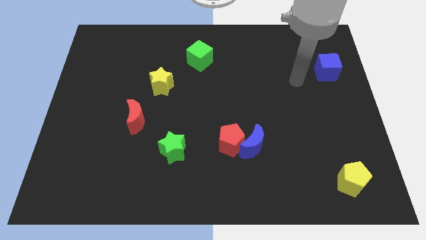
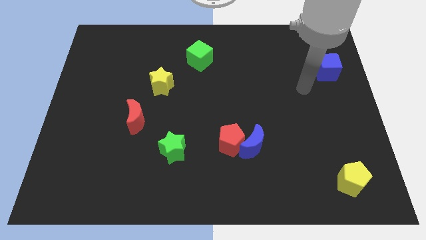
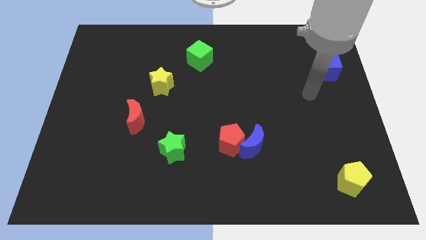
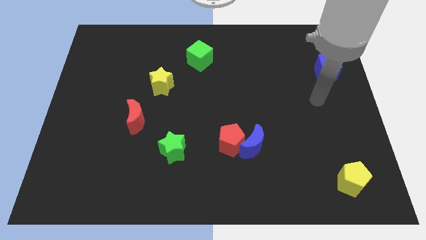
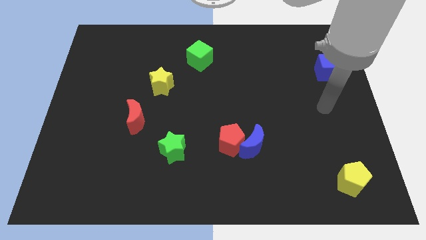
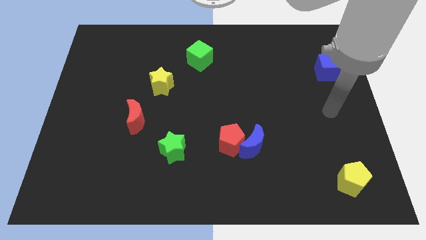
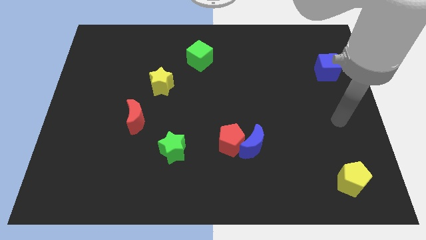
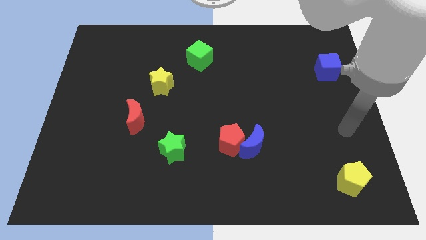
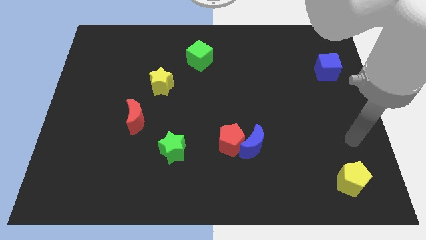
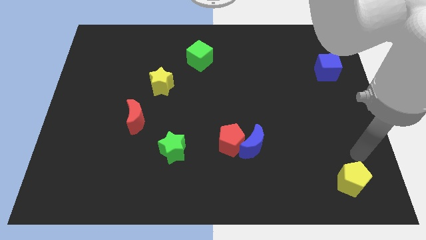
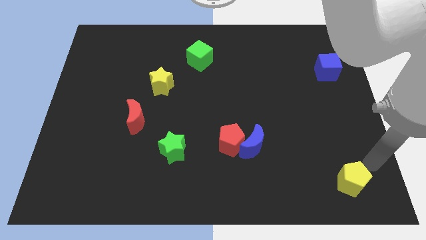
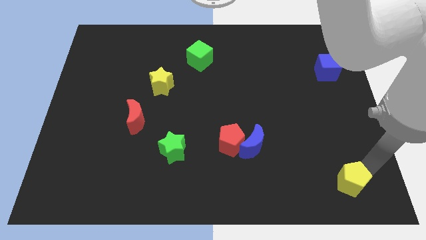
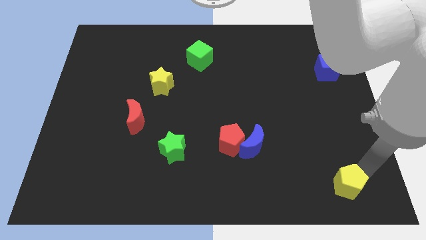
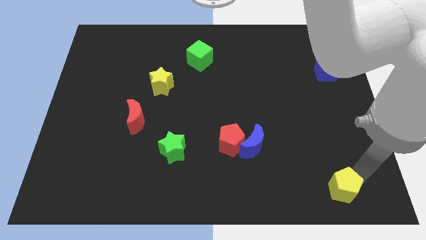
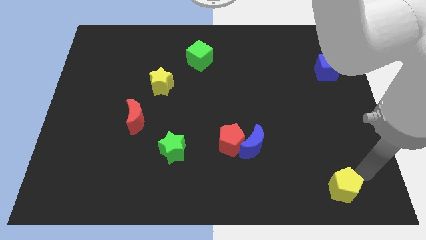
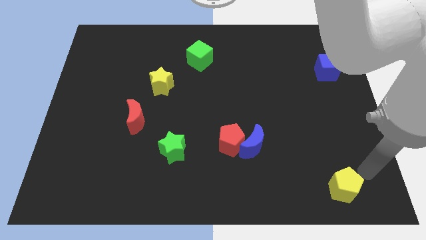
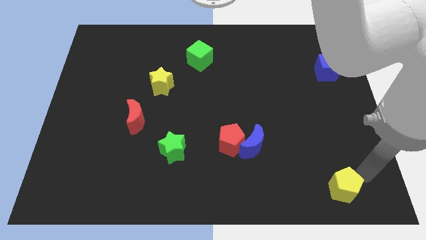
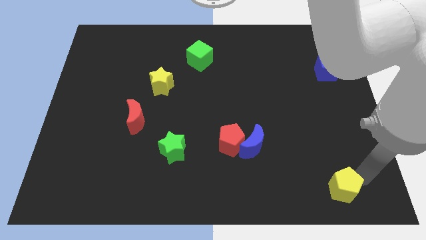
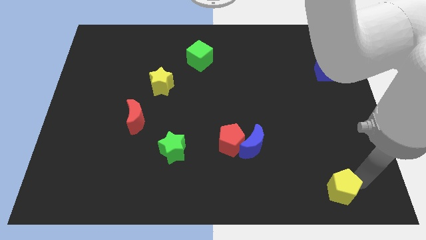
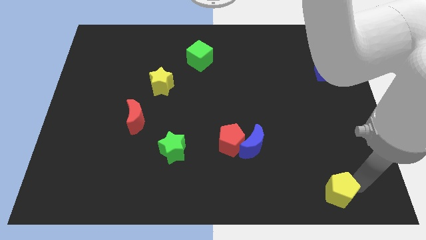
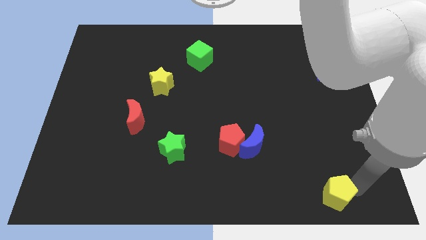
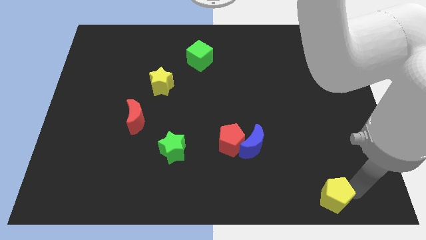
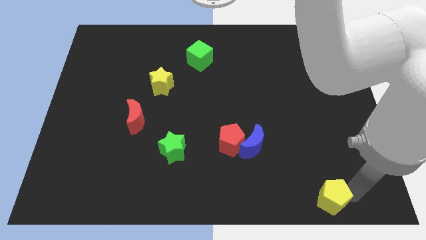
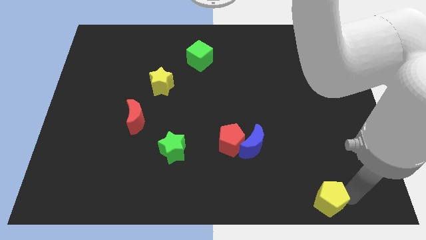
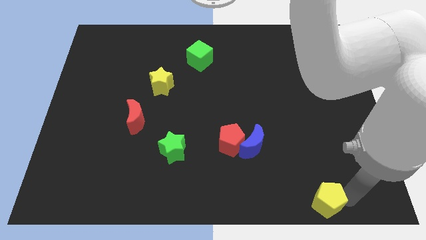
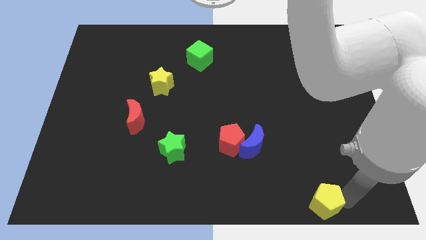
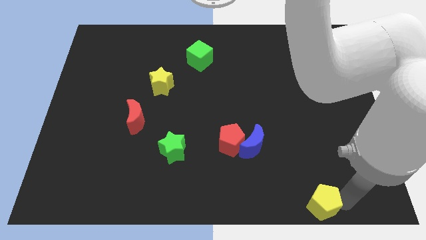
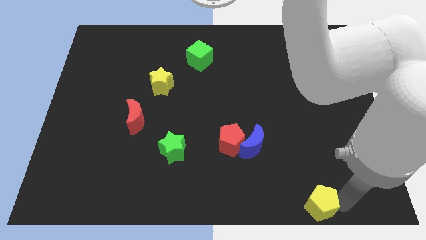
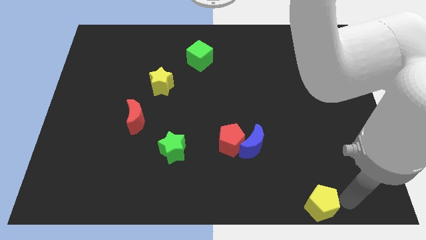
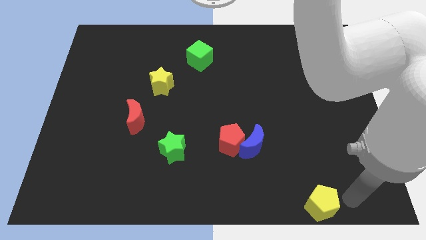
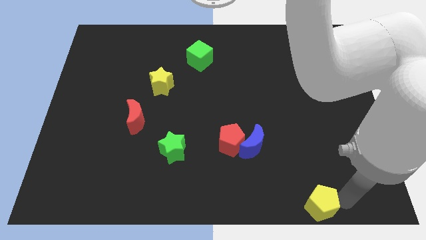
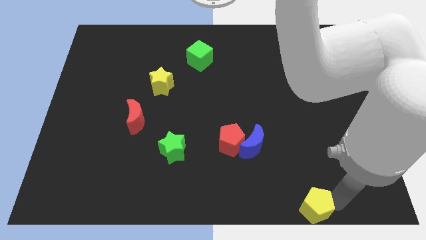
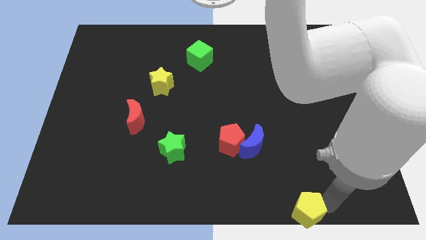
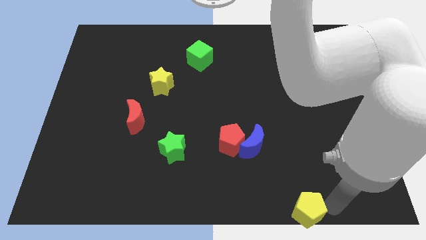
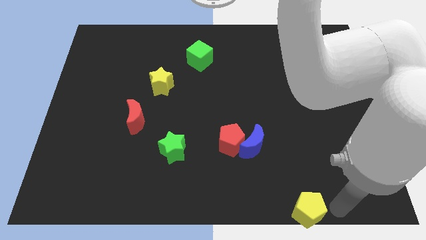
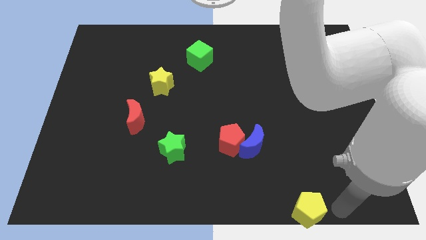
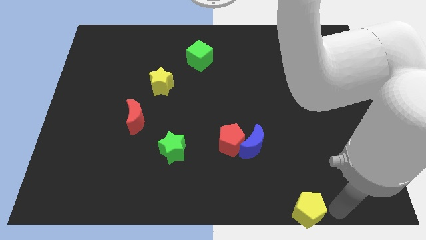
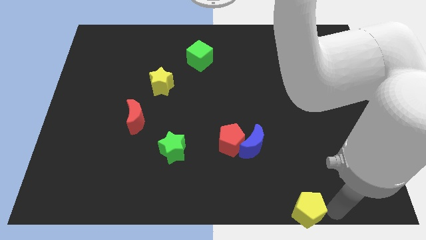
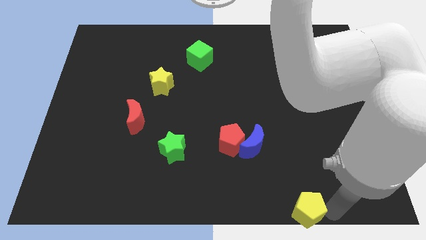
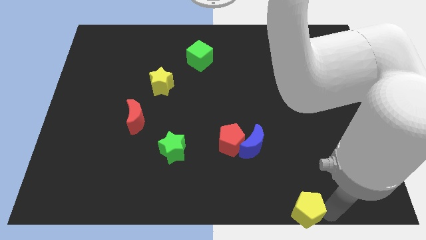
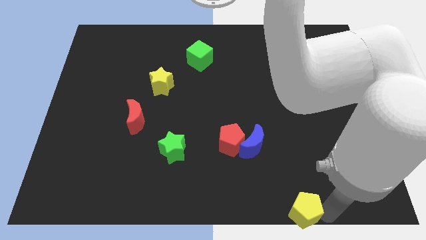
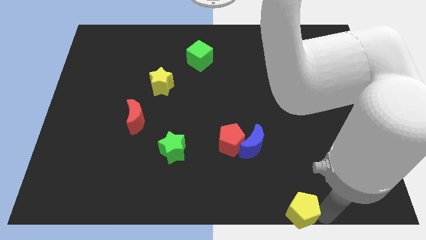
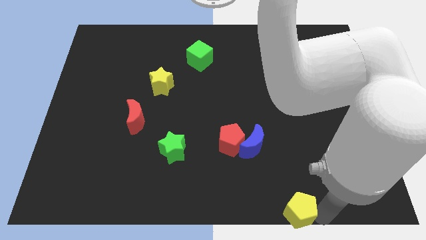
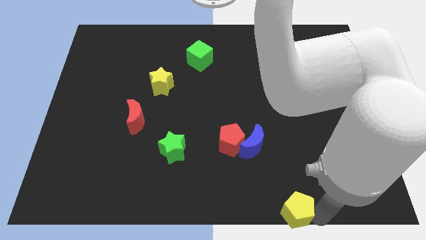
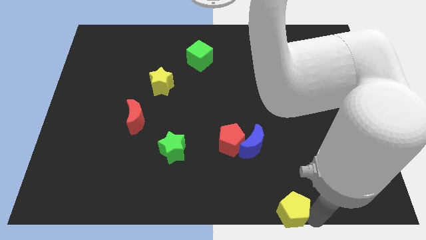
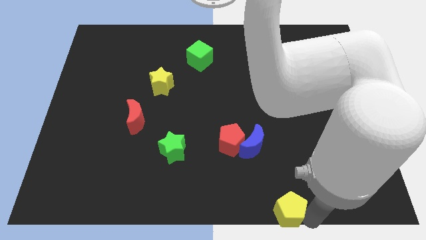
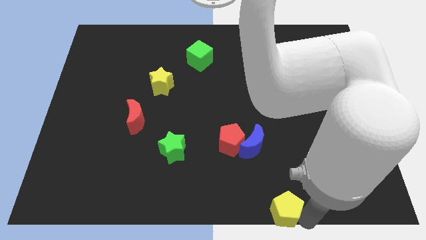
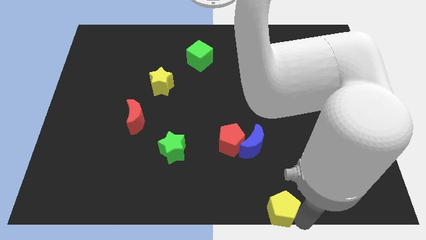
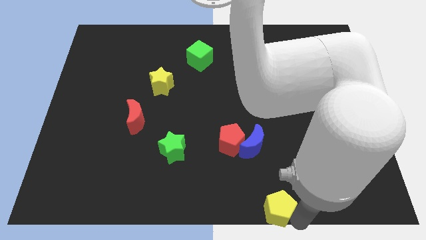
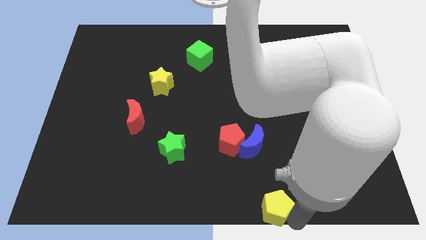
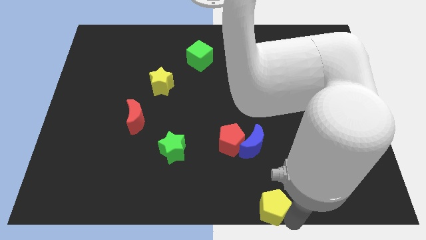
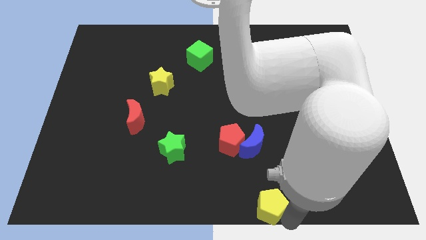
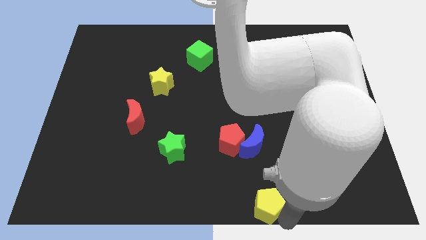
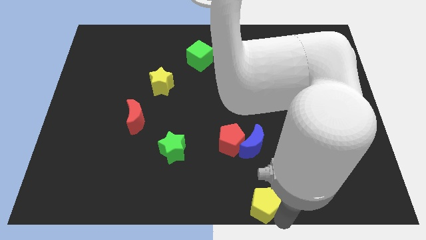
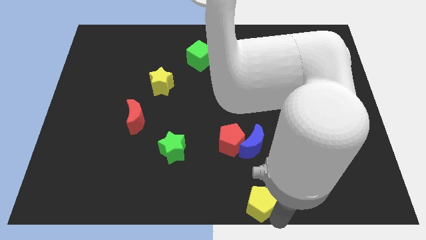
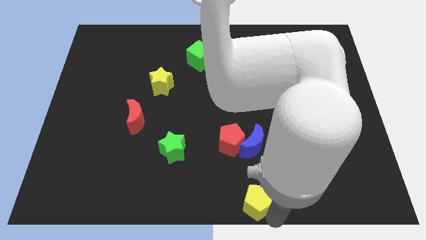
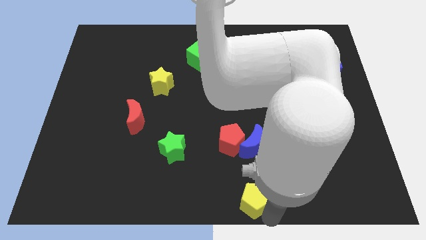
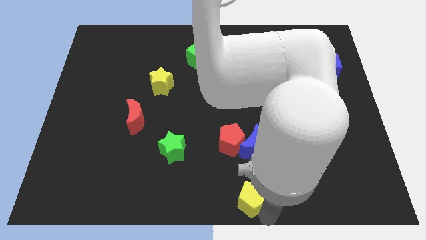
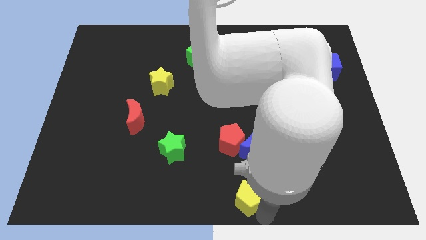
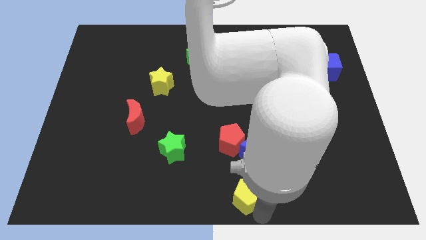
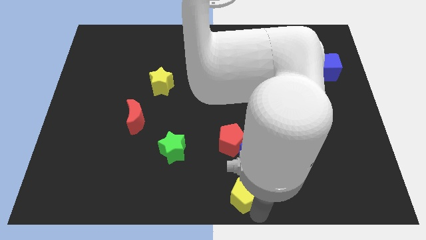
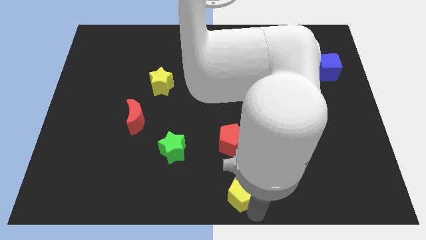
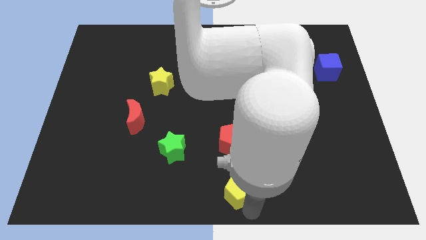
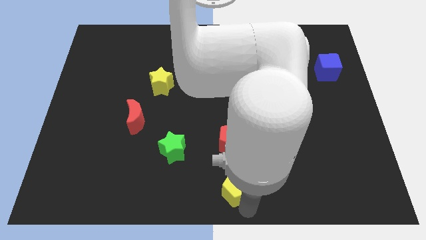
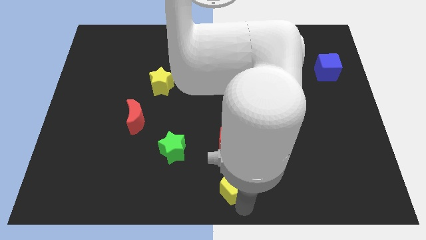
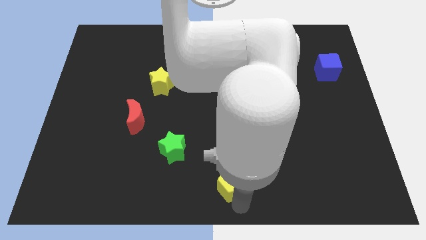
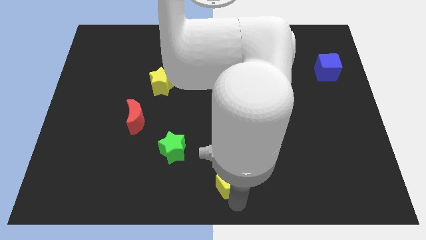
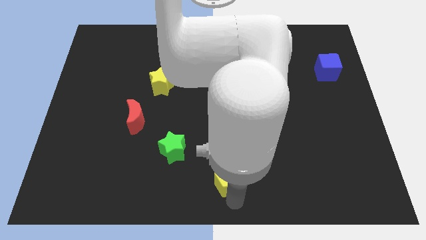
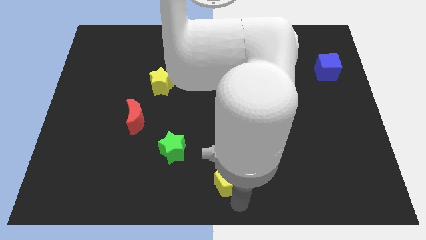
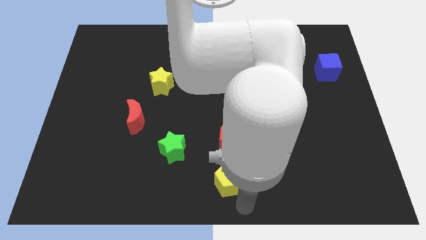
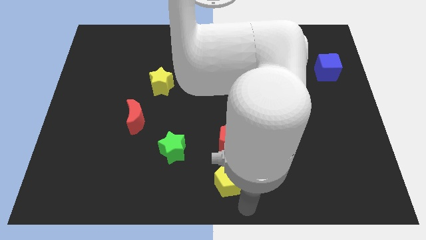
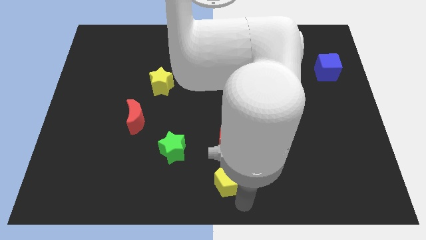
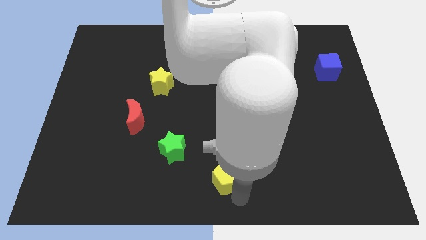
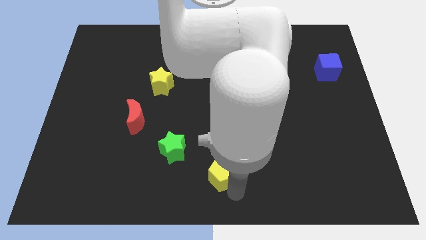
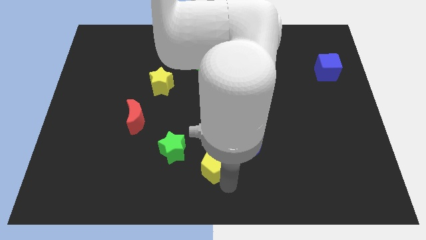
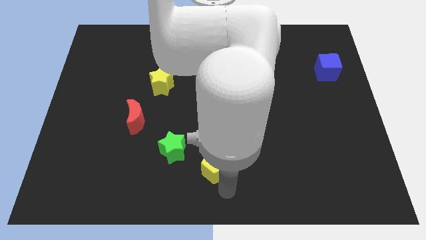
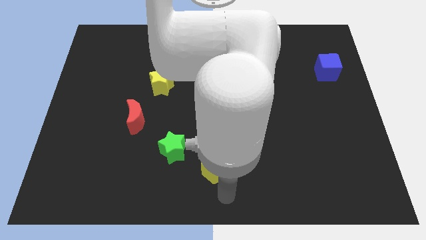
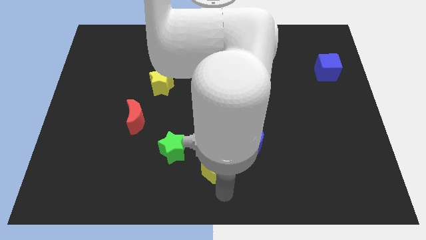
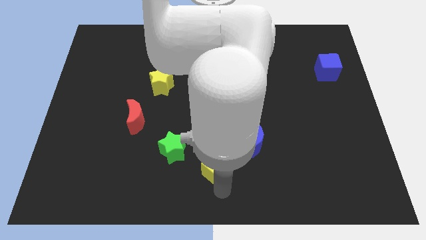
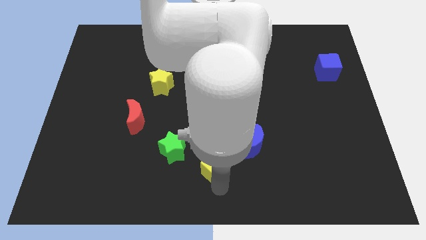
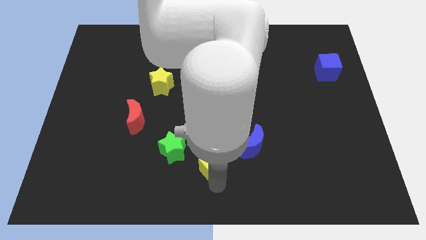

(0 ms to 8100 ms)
put the yellow pentagon to the left side of the blue moon
